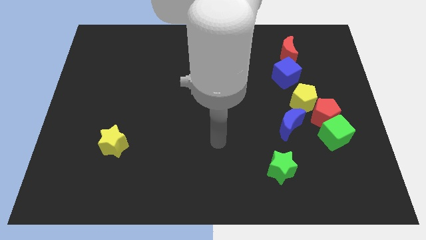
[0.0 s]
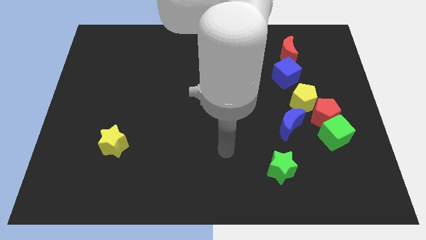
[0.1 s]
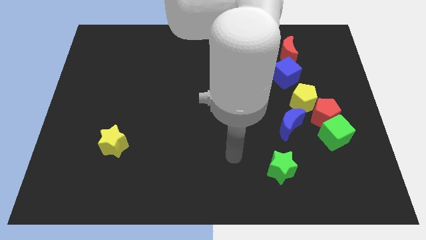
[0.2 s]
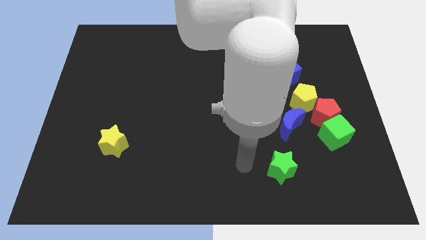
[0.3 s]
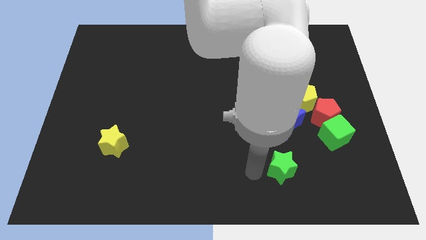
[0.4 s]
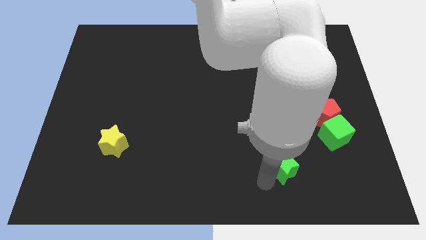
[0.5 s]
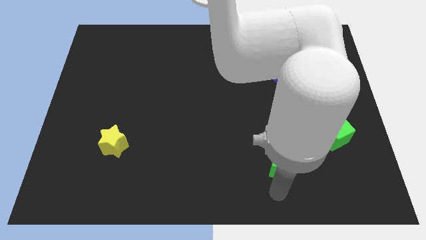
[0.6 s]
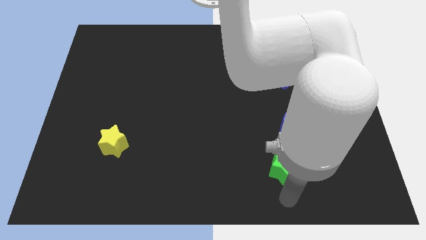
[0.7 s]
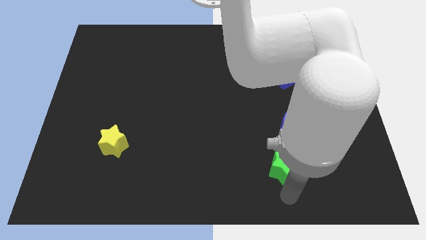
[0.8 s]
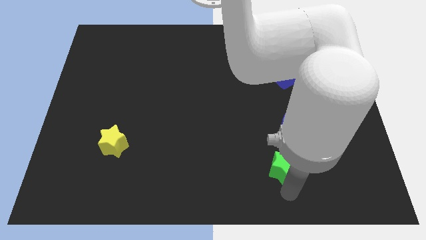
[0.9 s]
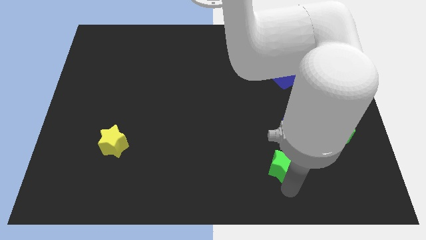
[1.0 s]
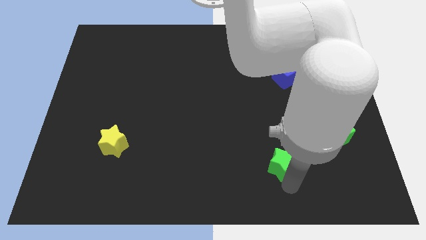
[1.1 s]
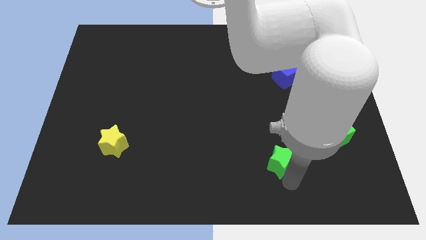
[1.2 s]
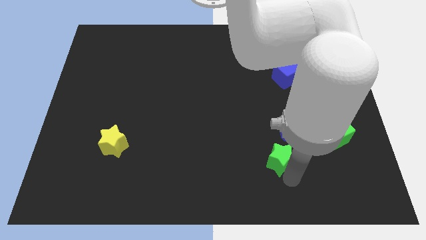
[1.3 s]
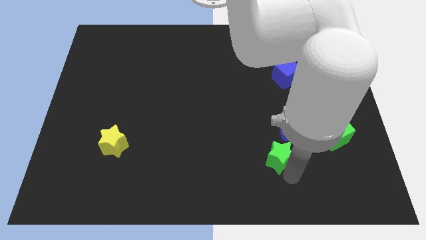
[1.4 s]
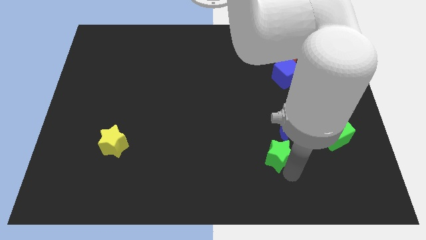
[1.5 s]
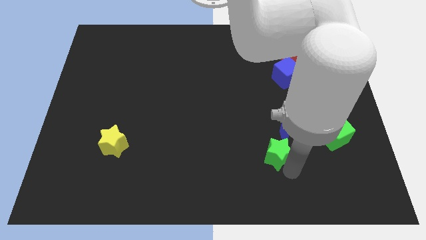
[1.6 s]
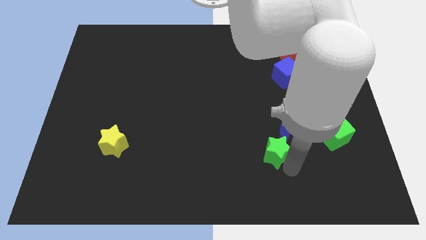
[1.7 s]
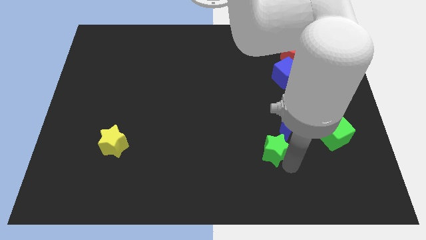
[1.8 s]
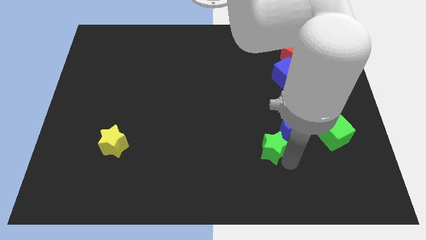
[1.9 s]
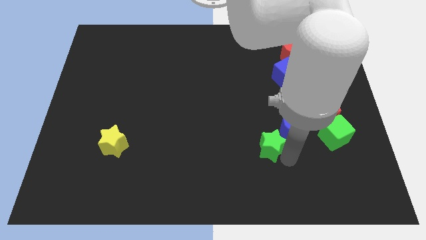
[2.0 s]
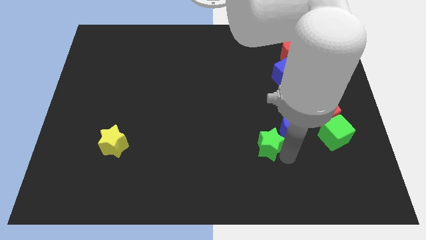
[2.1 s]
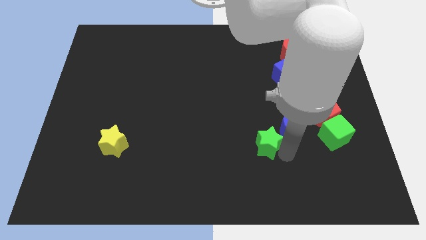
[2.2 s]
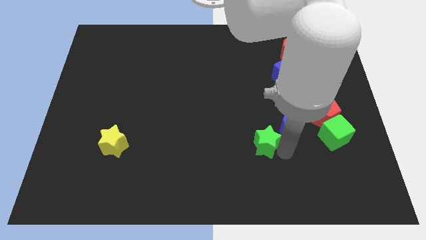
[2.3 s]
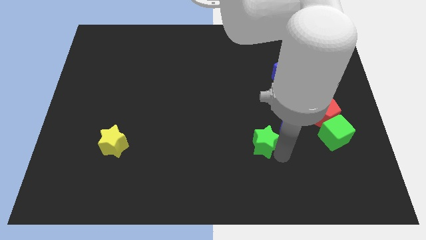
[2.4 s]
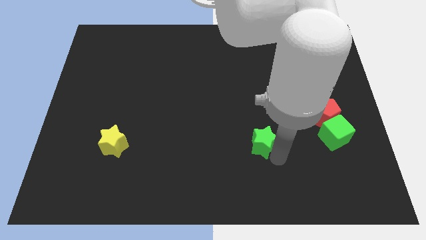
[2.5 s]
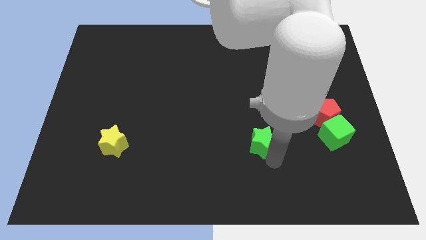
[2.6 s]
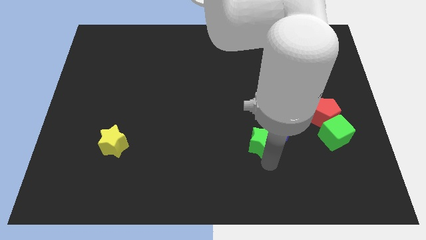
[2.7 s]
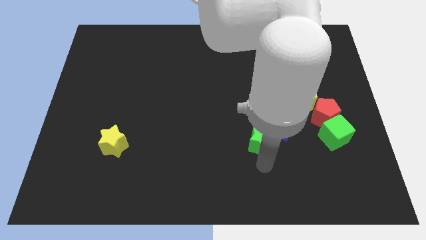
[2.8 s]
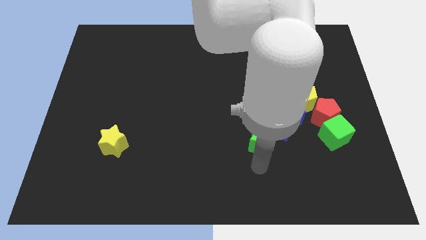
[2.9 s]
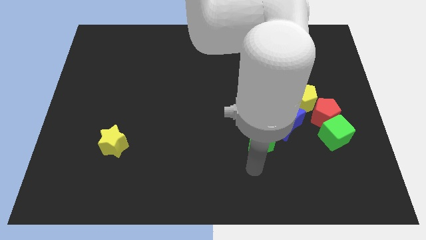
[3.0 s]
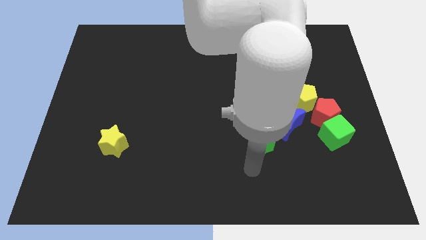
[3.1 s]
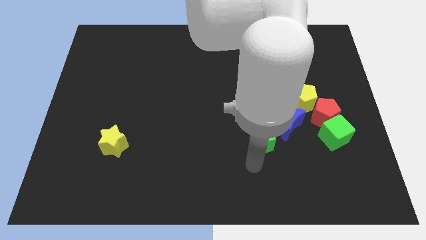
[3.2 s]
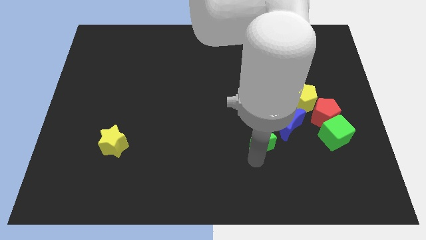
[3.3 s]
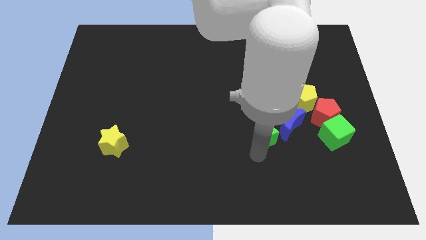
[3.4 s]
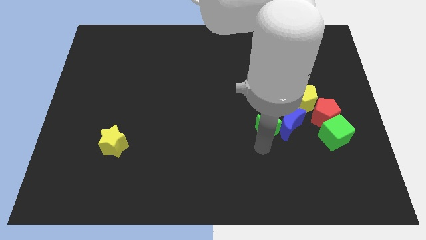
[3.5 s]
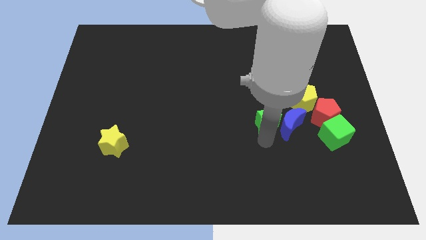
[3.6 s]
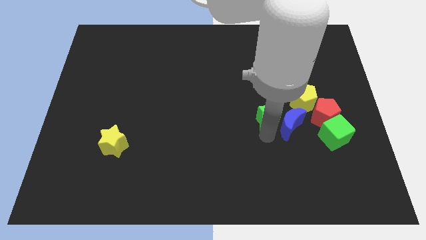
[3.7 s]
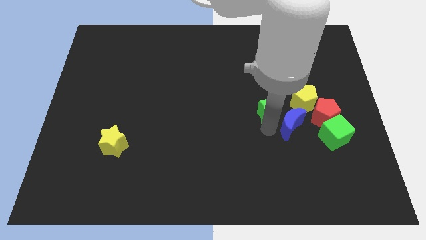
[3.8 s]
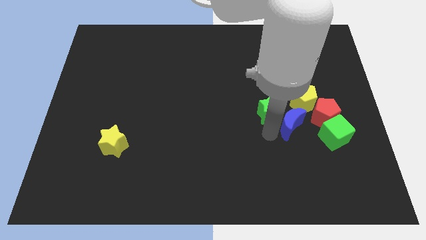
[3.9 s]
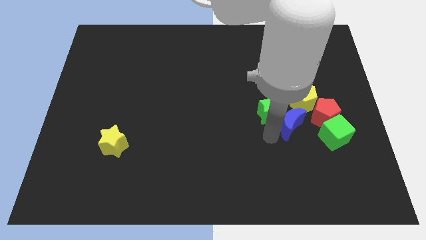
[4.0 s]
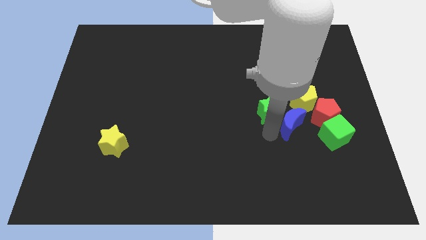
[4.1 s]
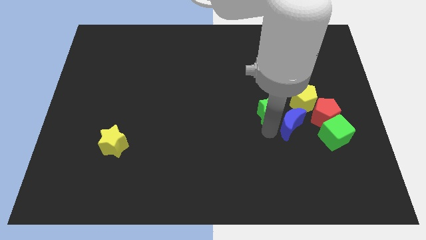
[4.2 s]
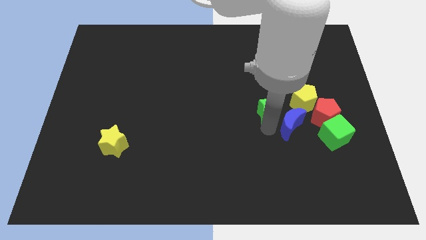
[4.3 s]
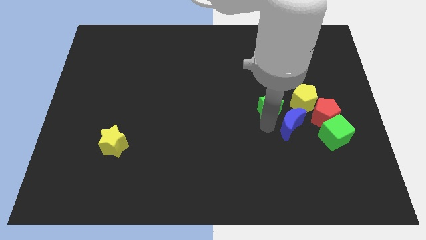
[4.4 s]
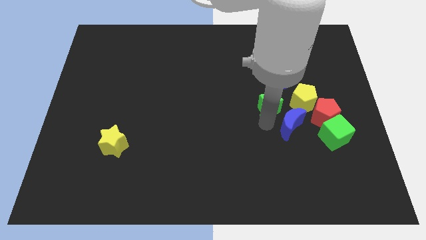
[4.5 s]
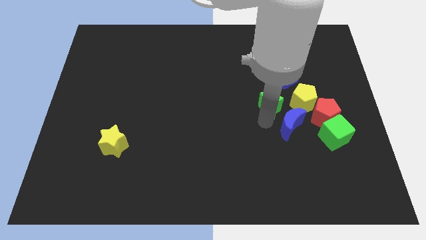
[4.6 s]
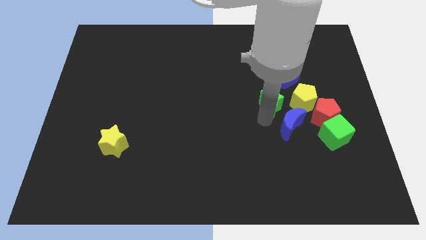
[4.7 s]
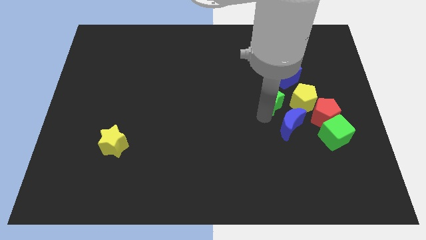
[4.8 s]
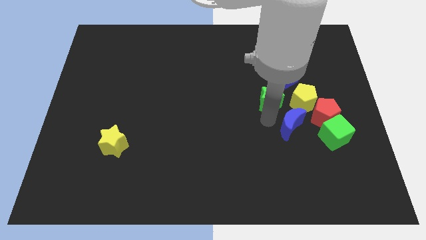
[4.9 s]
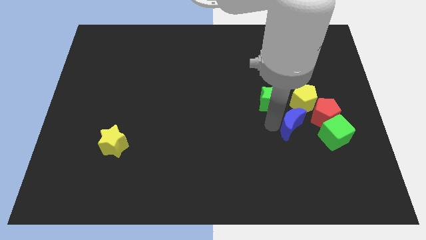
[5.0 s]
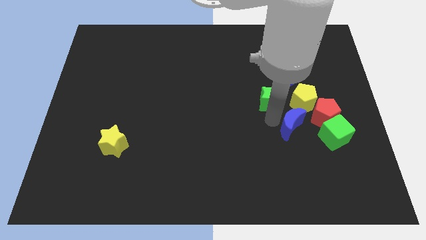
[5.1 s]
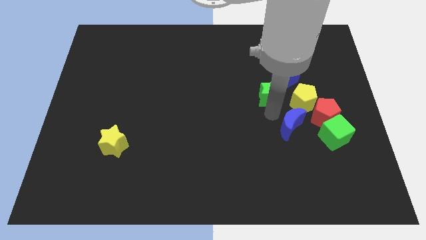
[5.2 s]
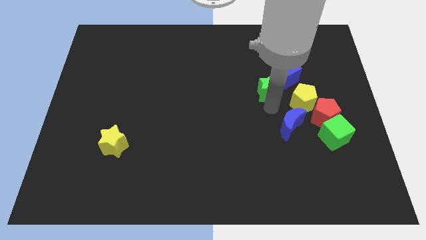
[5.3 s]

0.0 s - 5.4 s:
push the green star upwards

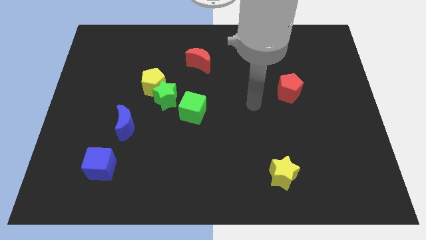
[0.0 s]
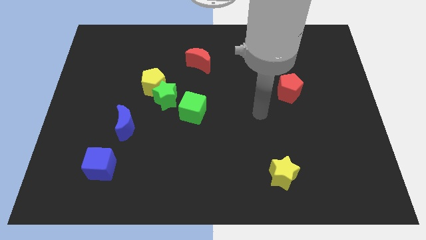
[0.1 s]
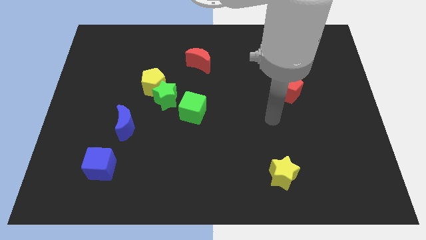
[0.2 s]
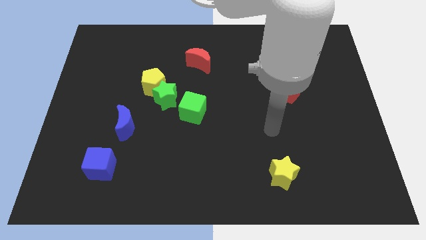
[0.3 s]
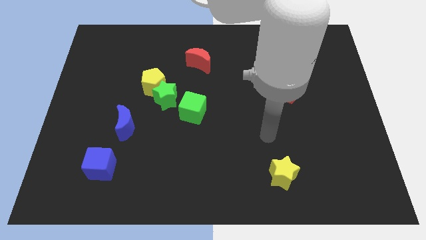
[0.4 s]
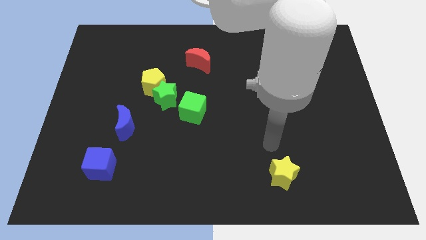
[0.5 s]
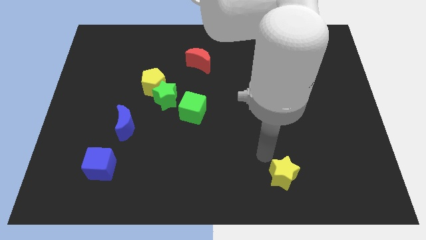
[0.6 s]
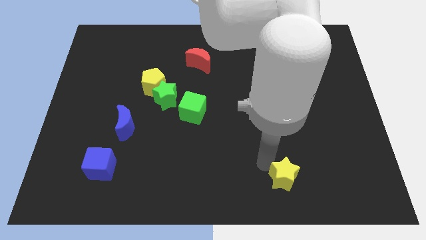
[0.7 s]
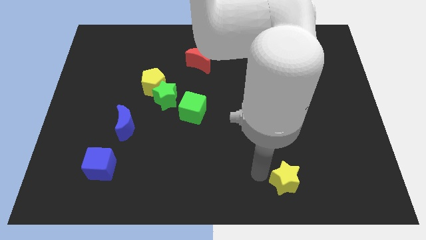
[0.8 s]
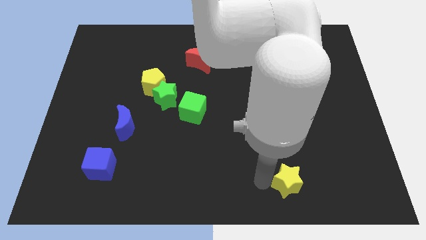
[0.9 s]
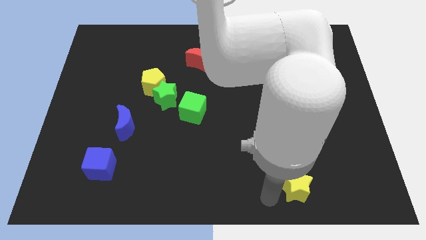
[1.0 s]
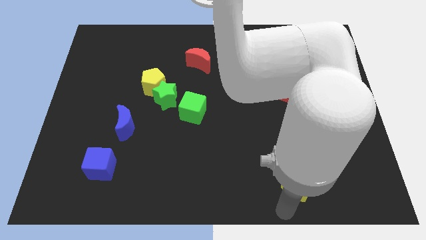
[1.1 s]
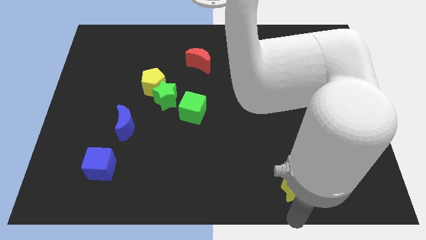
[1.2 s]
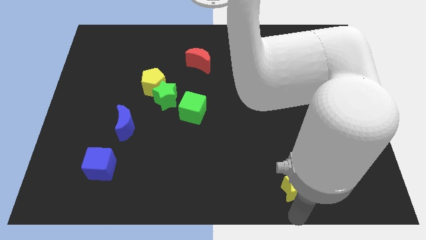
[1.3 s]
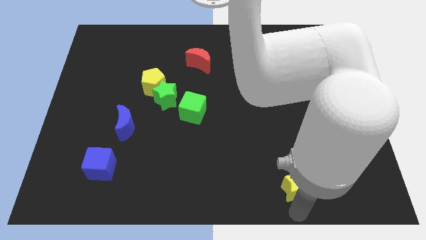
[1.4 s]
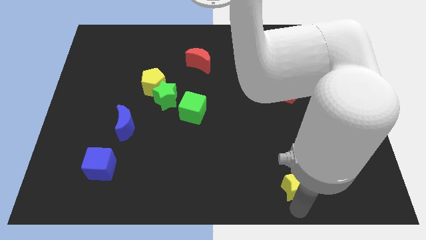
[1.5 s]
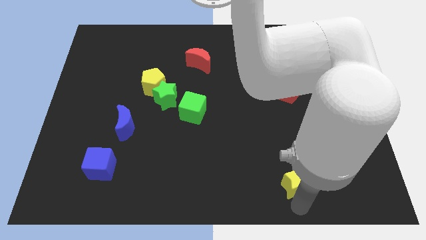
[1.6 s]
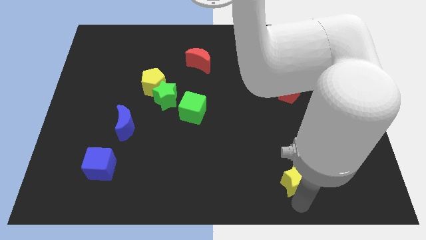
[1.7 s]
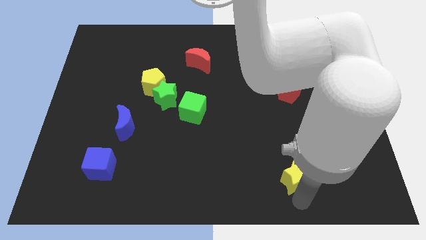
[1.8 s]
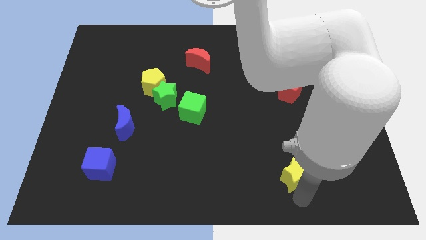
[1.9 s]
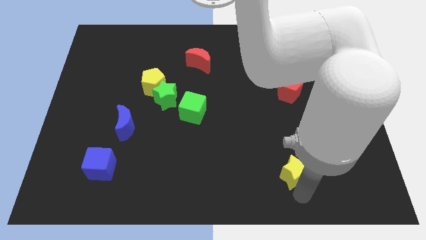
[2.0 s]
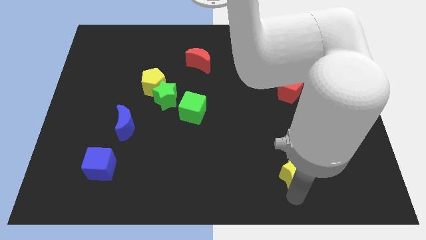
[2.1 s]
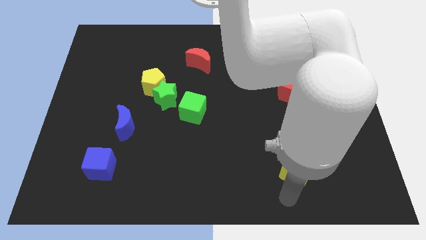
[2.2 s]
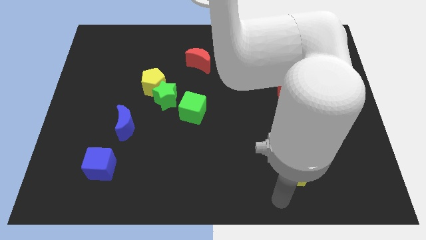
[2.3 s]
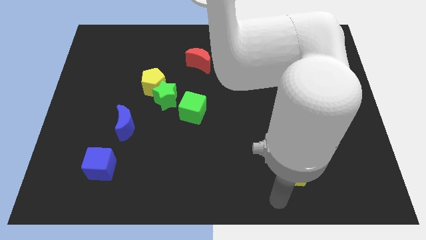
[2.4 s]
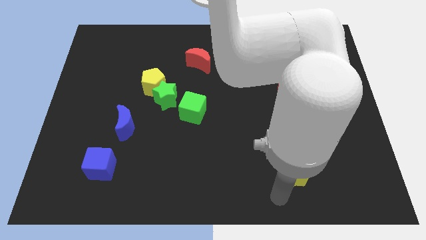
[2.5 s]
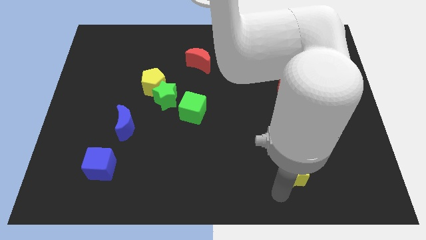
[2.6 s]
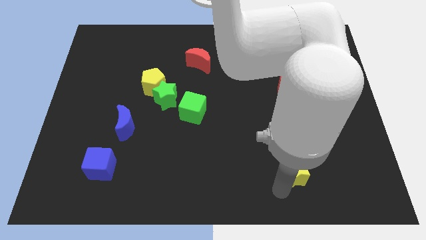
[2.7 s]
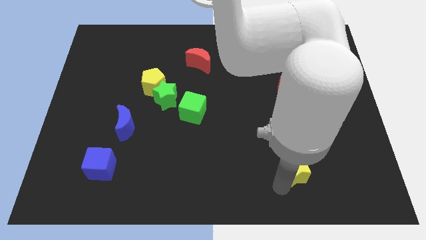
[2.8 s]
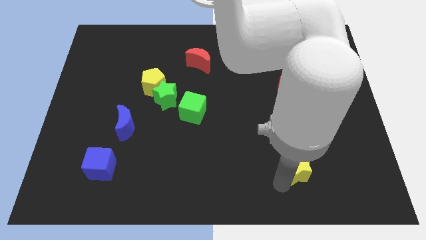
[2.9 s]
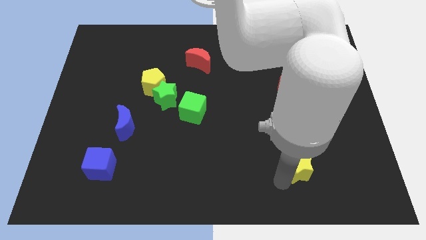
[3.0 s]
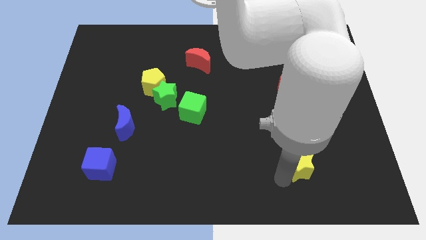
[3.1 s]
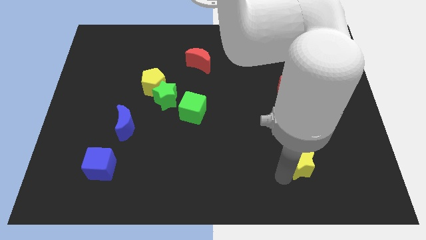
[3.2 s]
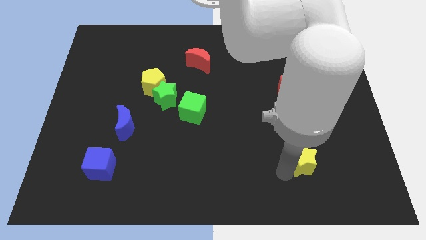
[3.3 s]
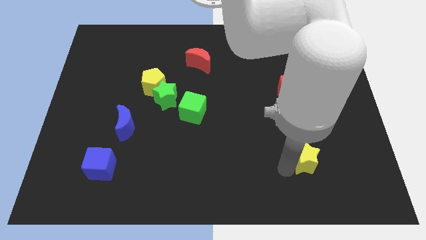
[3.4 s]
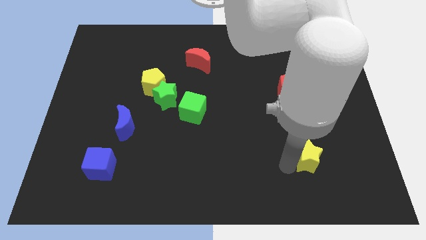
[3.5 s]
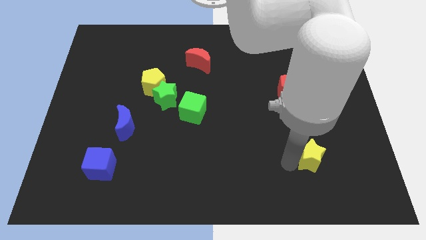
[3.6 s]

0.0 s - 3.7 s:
slide the yellow star up and then to the right somewhat
